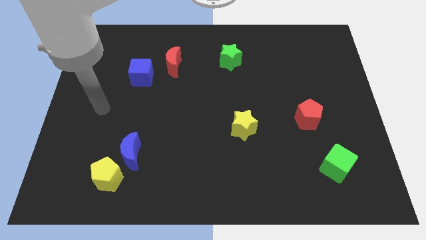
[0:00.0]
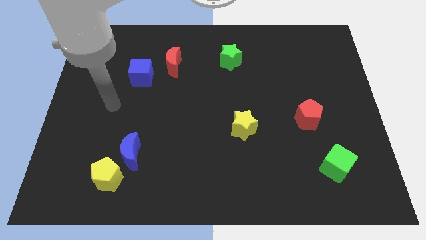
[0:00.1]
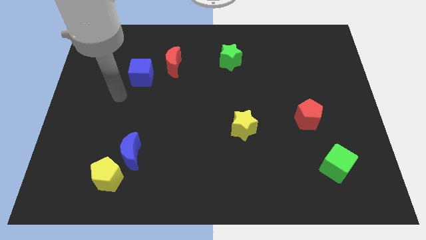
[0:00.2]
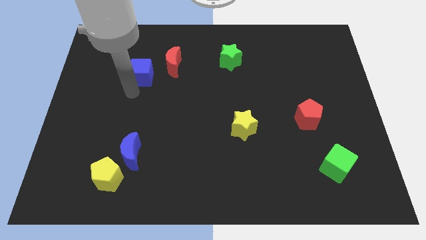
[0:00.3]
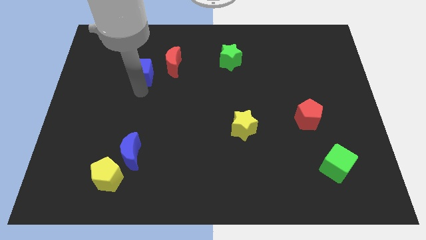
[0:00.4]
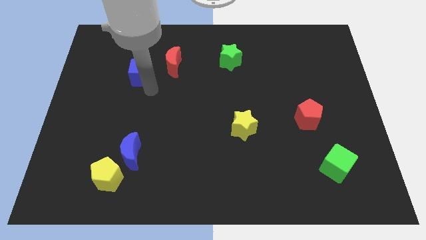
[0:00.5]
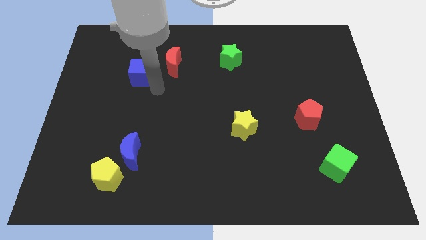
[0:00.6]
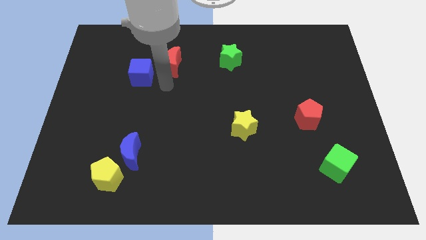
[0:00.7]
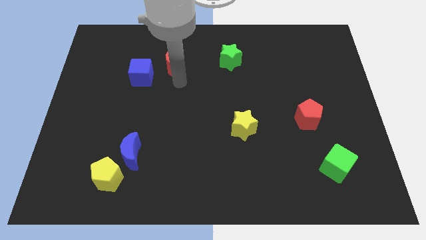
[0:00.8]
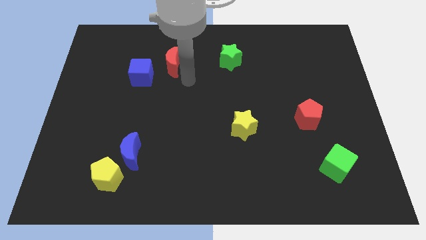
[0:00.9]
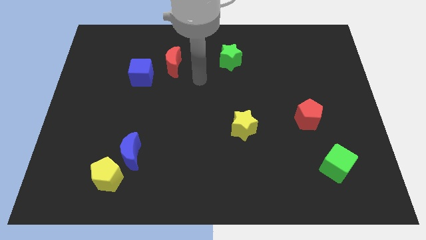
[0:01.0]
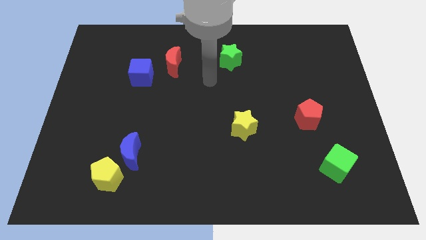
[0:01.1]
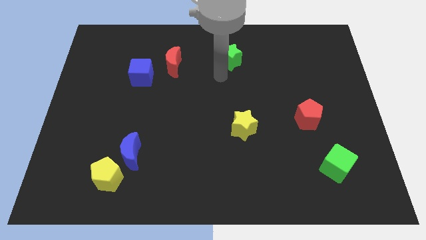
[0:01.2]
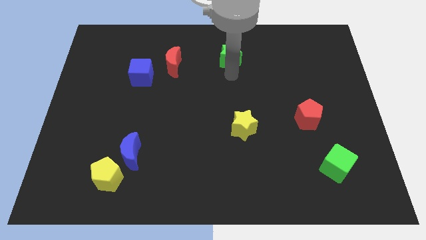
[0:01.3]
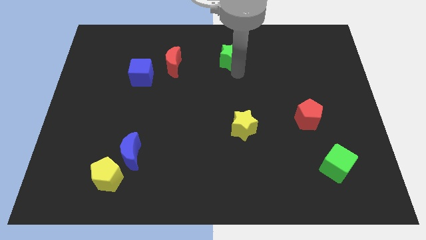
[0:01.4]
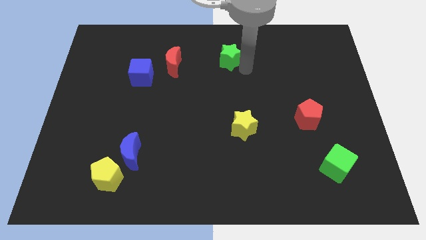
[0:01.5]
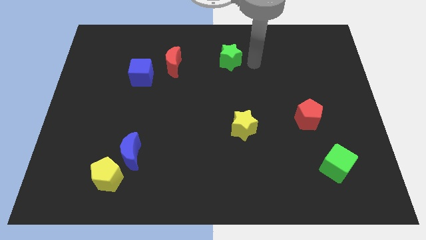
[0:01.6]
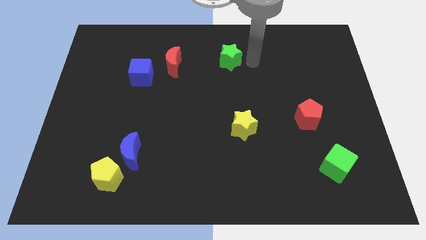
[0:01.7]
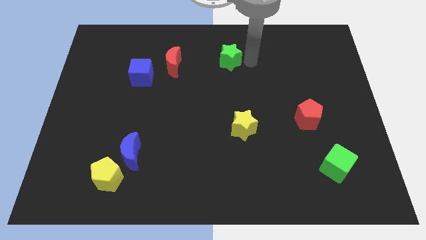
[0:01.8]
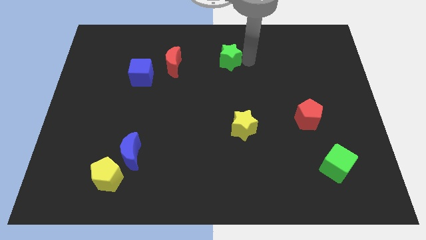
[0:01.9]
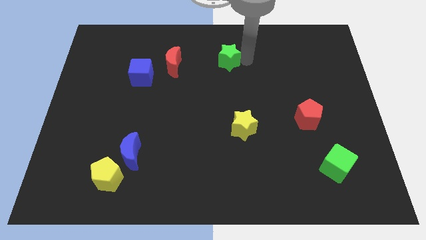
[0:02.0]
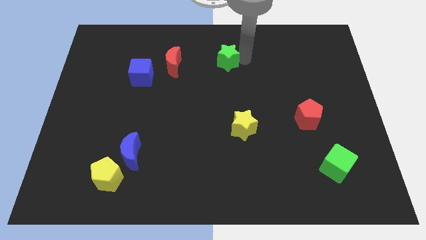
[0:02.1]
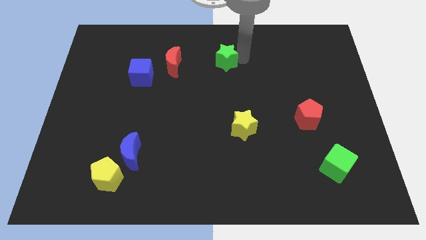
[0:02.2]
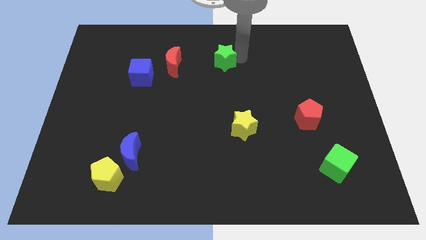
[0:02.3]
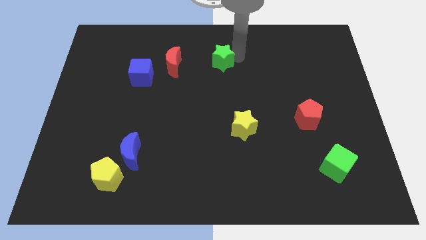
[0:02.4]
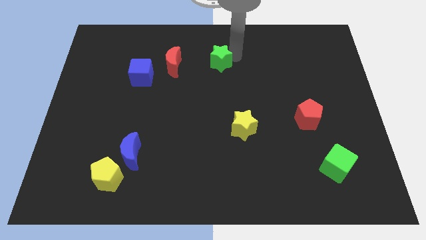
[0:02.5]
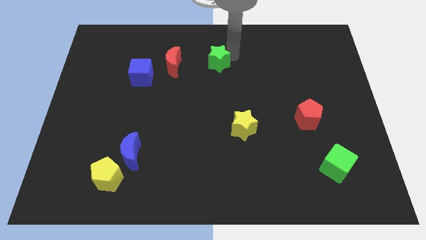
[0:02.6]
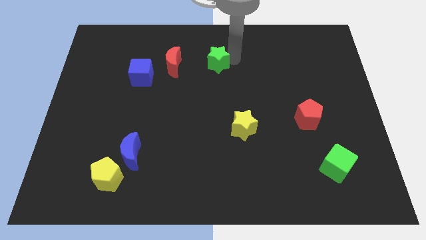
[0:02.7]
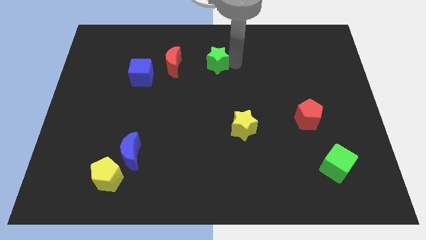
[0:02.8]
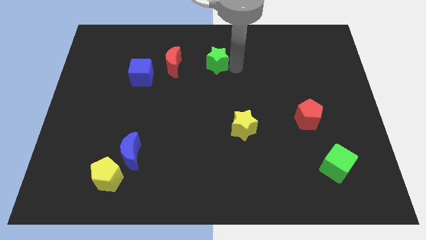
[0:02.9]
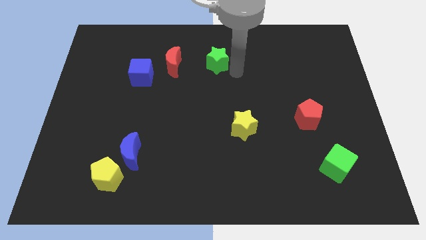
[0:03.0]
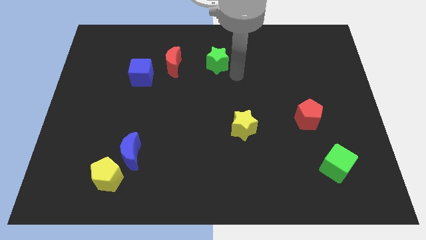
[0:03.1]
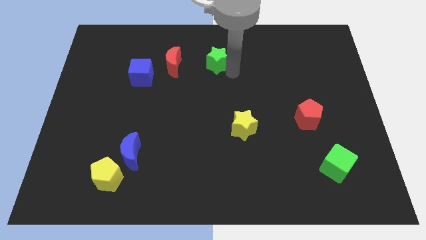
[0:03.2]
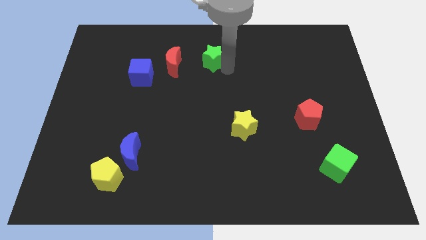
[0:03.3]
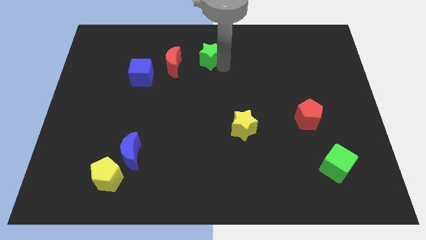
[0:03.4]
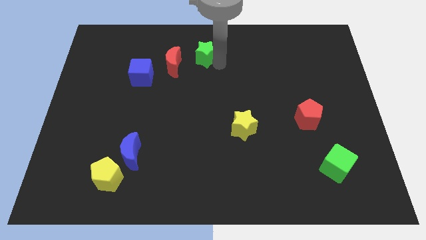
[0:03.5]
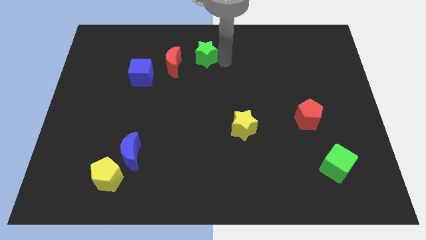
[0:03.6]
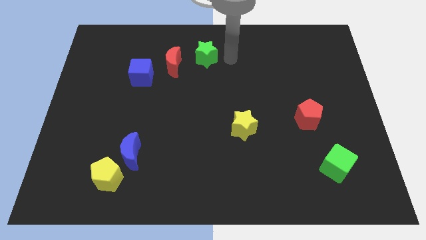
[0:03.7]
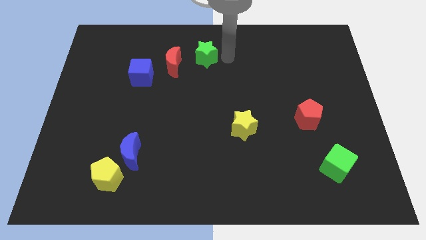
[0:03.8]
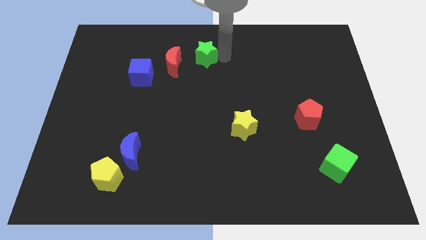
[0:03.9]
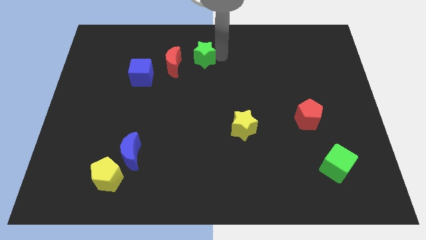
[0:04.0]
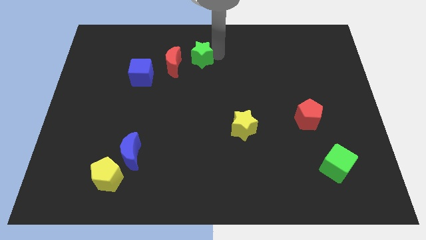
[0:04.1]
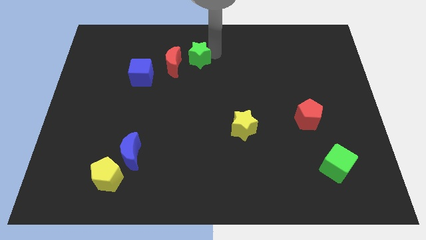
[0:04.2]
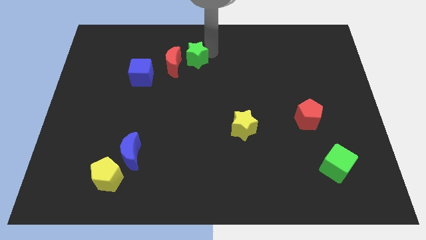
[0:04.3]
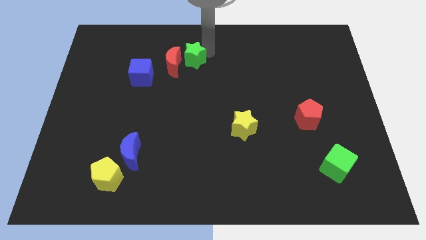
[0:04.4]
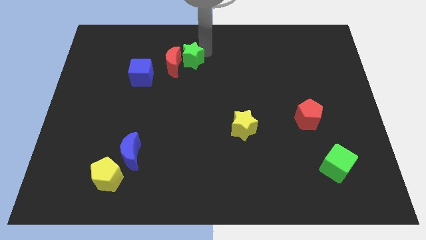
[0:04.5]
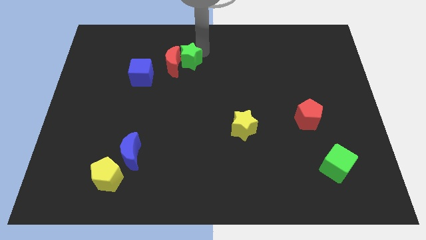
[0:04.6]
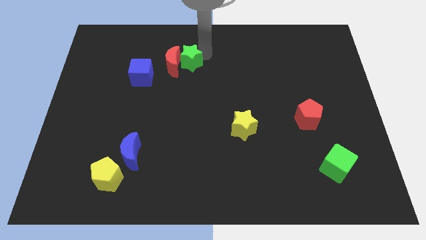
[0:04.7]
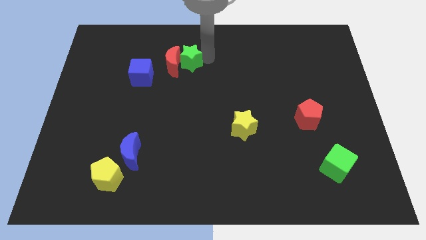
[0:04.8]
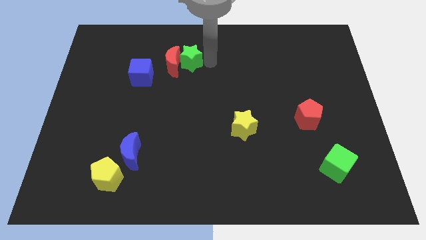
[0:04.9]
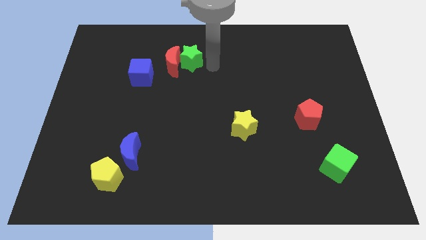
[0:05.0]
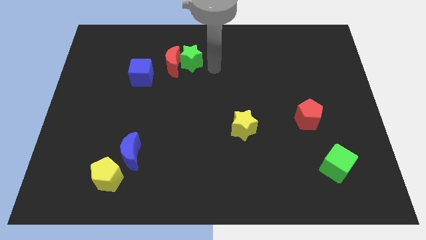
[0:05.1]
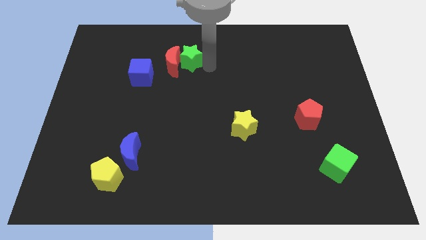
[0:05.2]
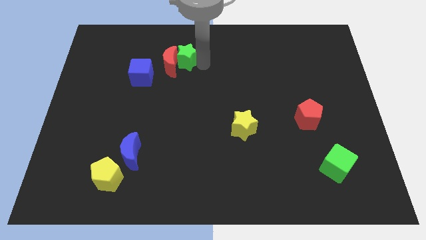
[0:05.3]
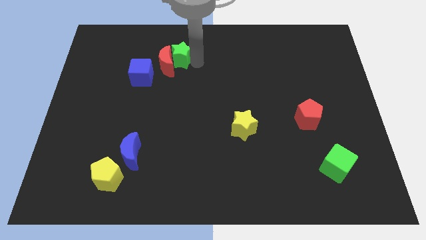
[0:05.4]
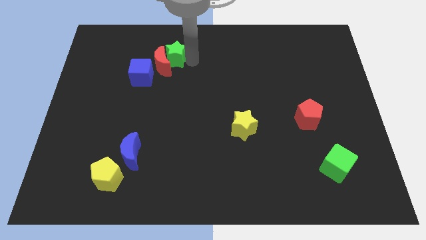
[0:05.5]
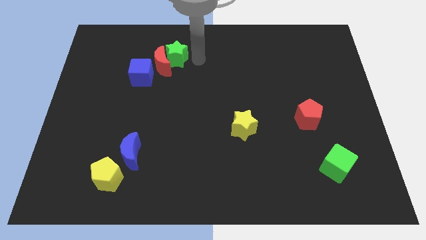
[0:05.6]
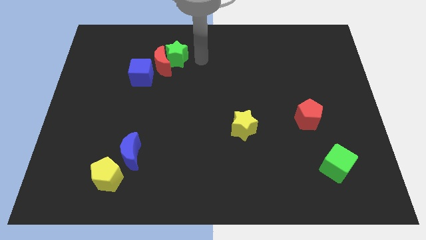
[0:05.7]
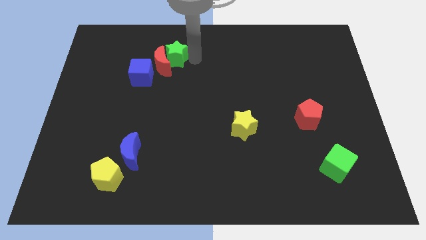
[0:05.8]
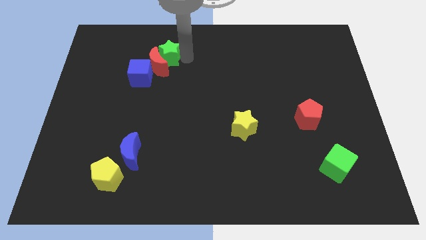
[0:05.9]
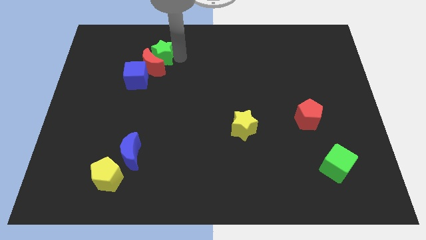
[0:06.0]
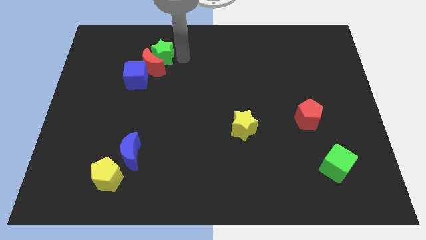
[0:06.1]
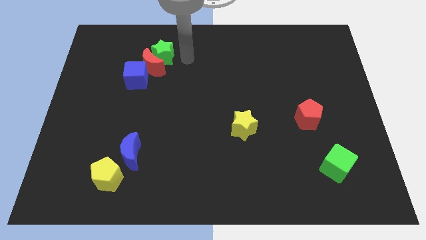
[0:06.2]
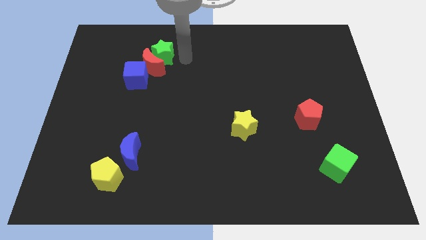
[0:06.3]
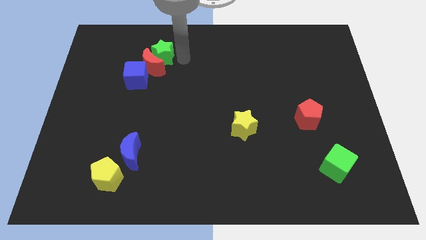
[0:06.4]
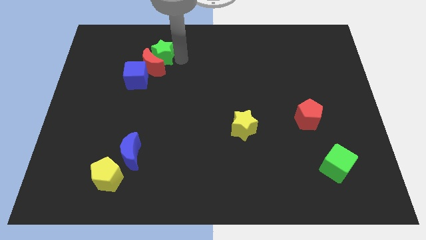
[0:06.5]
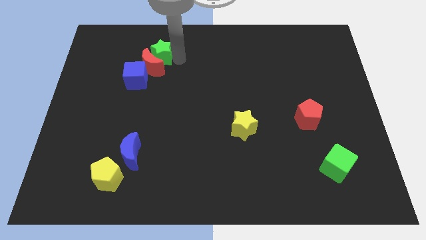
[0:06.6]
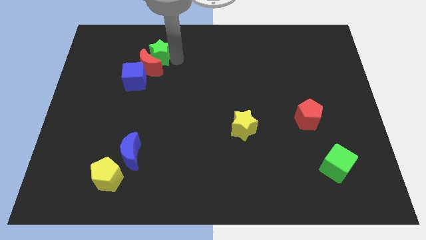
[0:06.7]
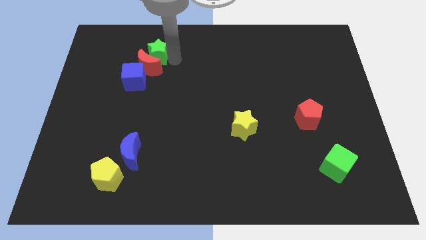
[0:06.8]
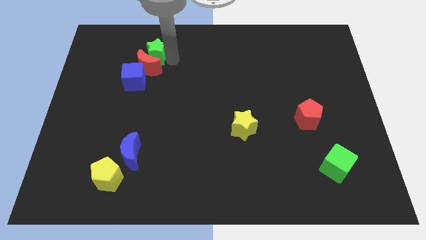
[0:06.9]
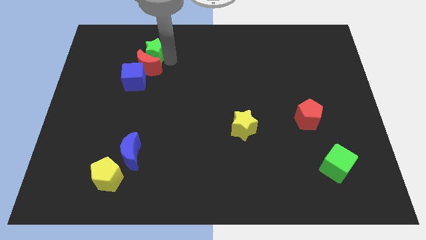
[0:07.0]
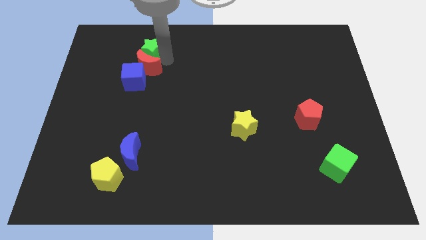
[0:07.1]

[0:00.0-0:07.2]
slide the green star left

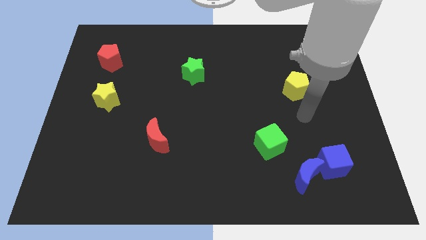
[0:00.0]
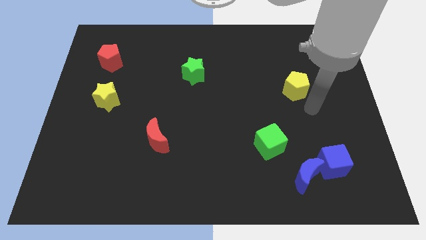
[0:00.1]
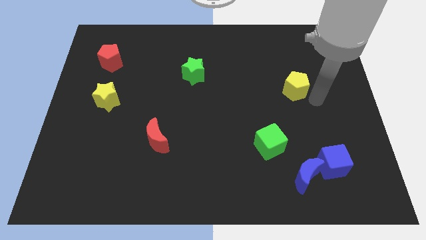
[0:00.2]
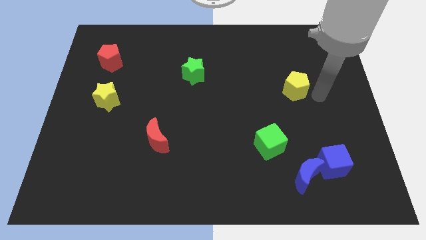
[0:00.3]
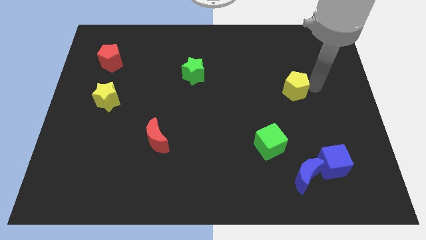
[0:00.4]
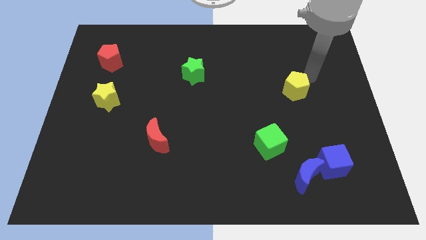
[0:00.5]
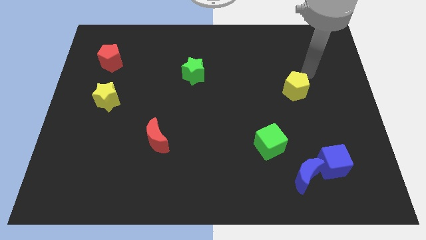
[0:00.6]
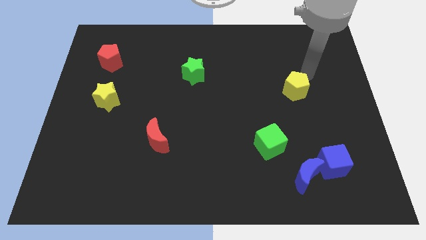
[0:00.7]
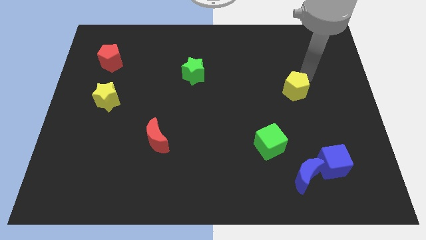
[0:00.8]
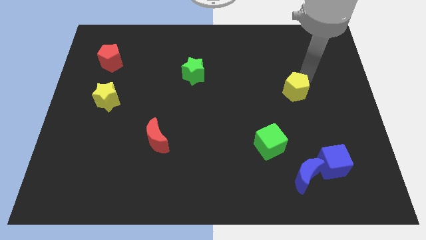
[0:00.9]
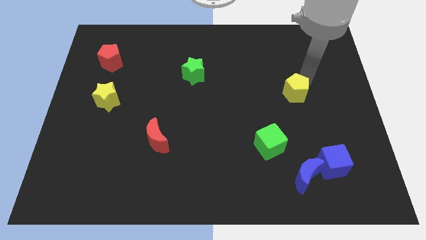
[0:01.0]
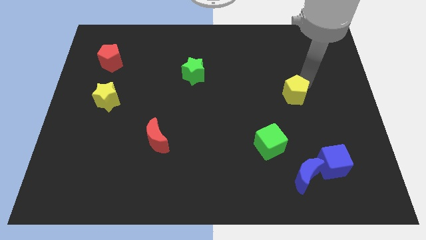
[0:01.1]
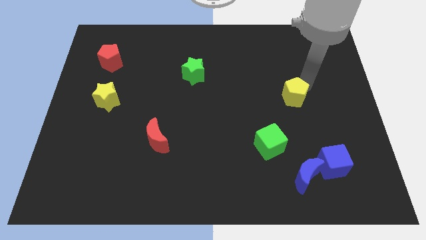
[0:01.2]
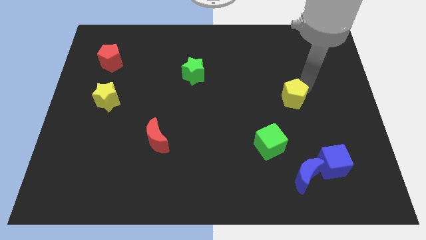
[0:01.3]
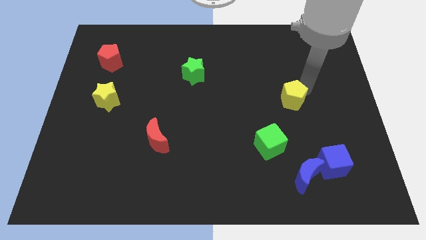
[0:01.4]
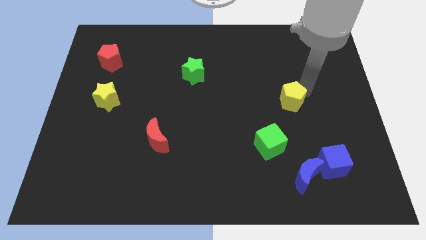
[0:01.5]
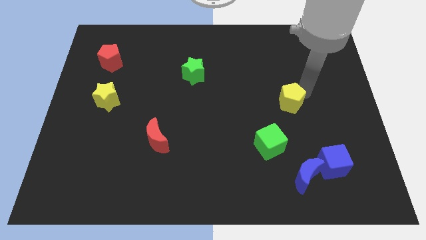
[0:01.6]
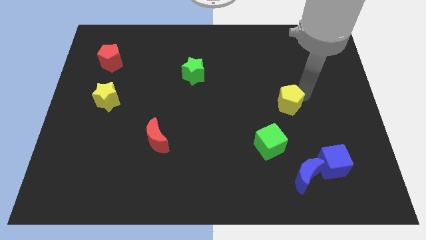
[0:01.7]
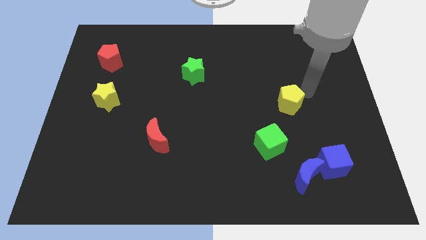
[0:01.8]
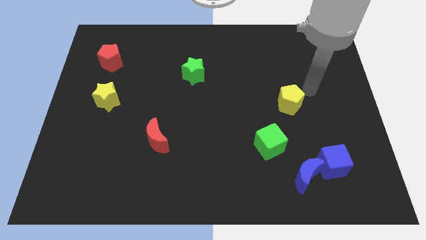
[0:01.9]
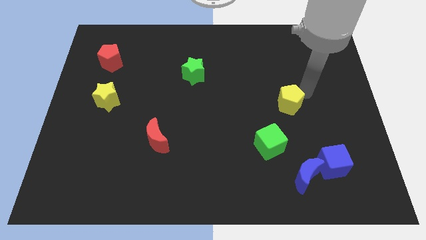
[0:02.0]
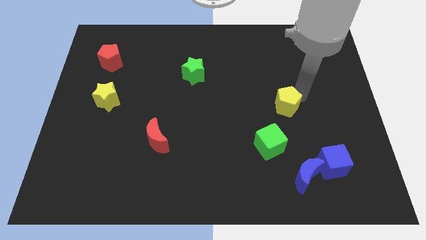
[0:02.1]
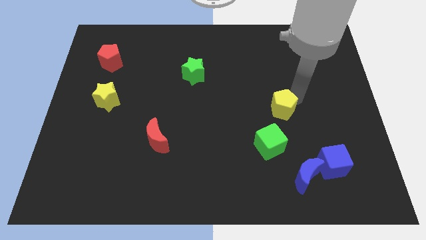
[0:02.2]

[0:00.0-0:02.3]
slightly move the yellow pentagon down and left
